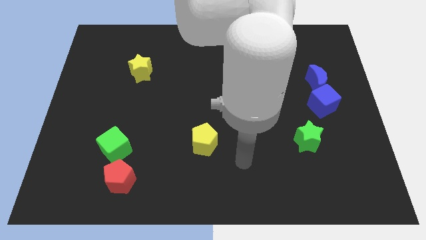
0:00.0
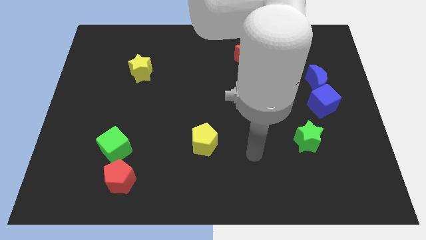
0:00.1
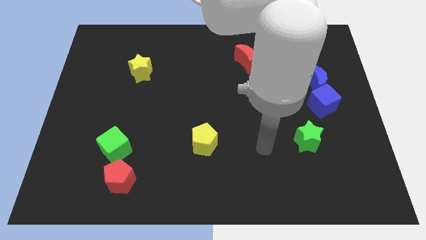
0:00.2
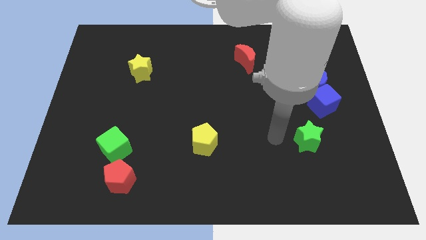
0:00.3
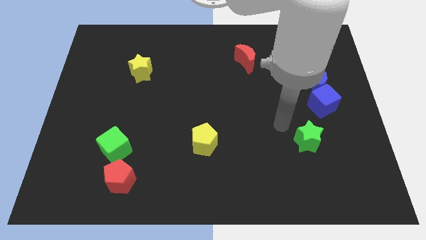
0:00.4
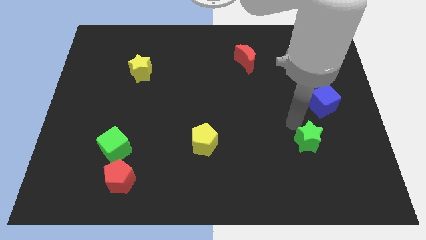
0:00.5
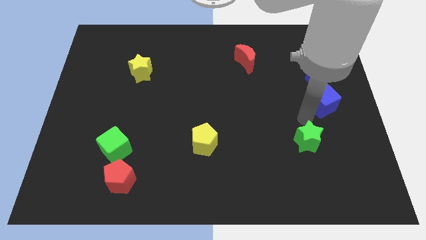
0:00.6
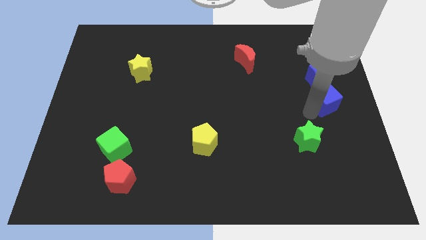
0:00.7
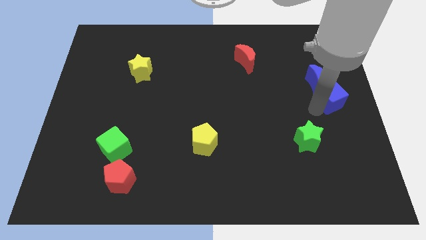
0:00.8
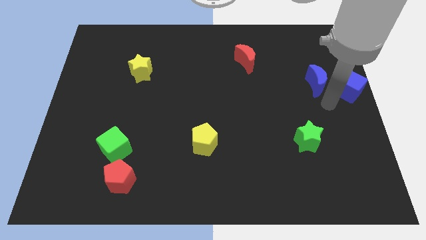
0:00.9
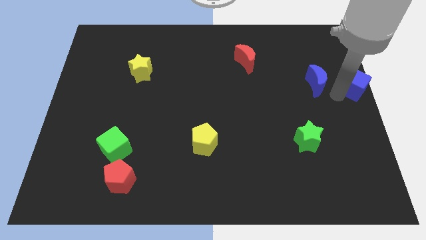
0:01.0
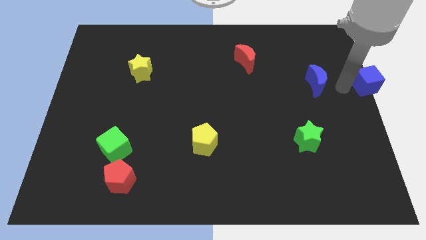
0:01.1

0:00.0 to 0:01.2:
move the blue moon away from the blue cube

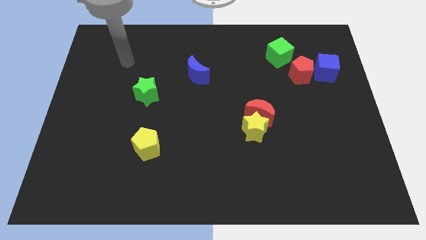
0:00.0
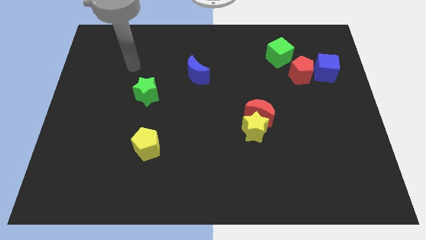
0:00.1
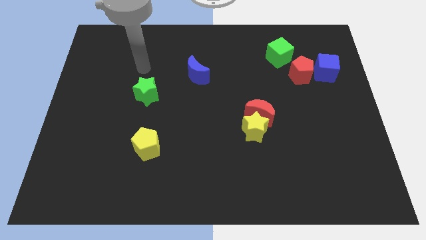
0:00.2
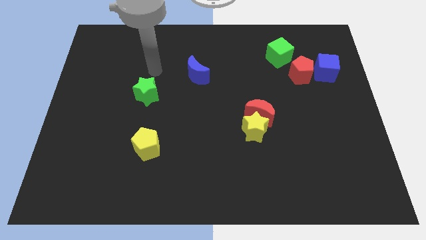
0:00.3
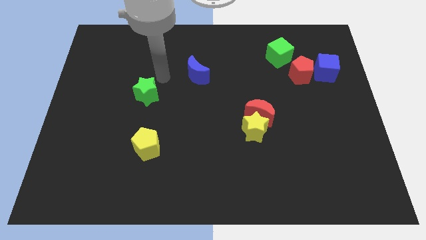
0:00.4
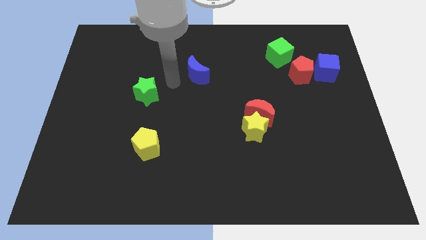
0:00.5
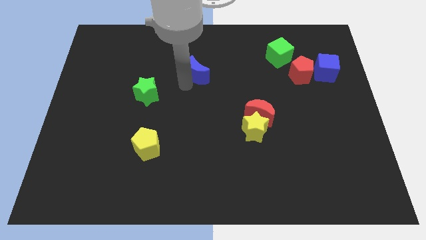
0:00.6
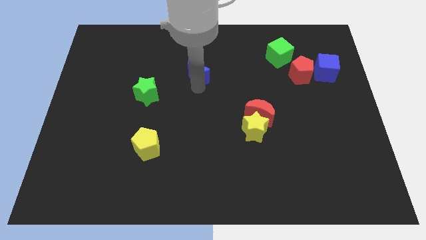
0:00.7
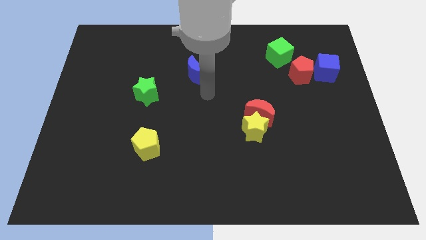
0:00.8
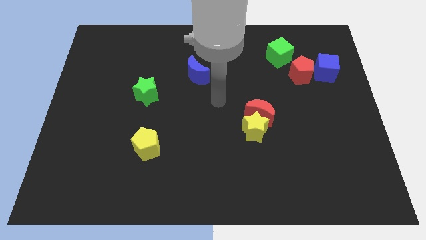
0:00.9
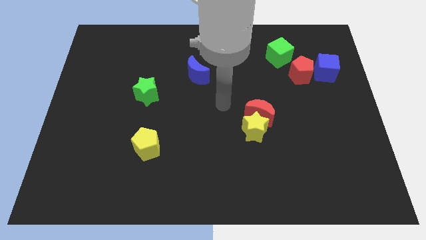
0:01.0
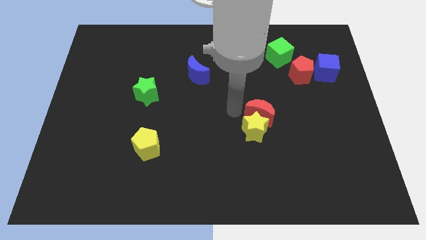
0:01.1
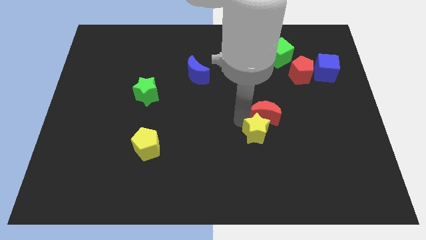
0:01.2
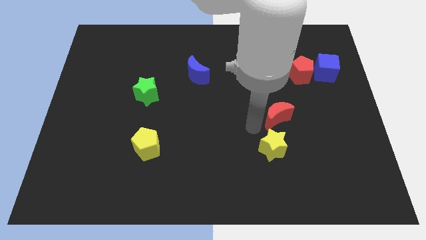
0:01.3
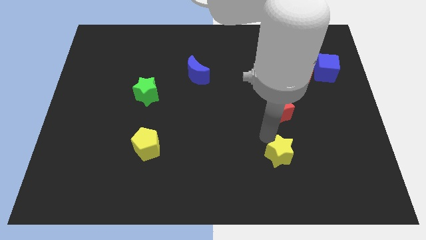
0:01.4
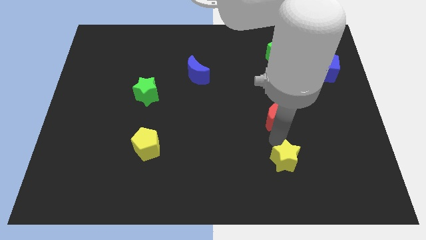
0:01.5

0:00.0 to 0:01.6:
move the red moon away from the yellow star

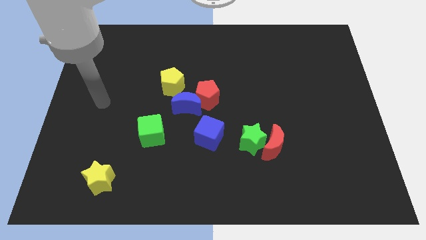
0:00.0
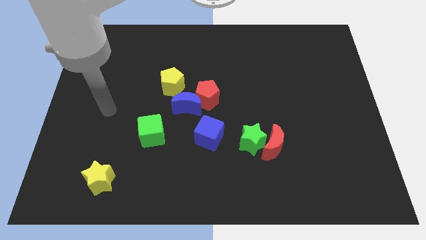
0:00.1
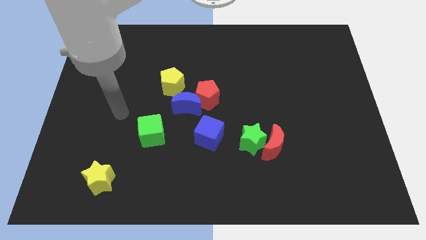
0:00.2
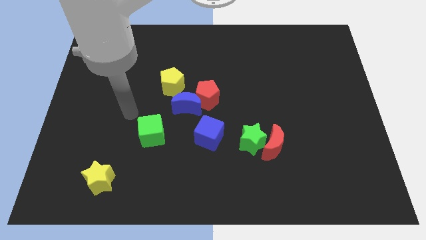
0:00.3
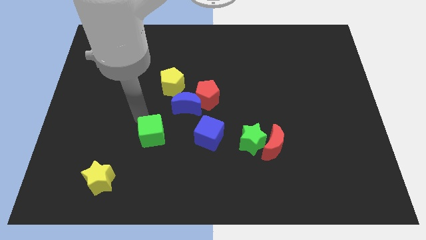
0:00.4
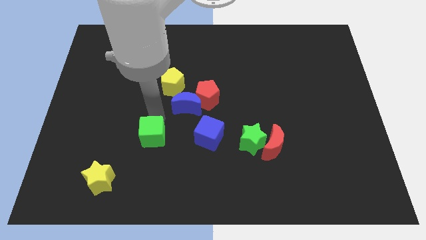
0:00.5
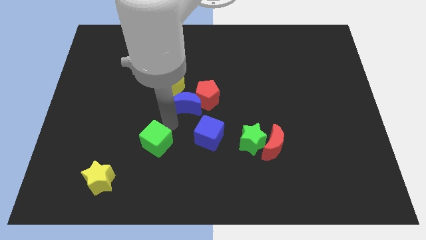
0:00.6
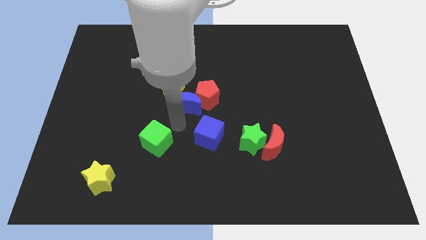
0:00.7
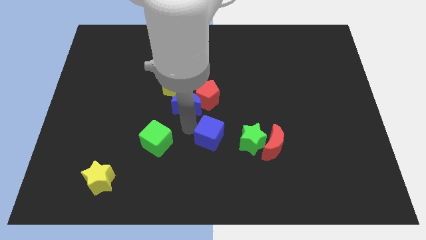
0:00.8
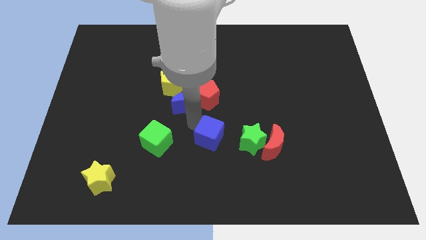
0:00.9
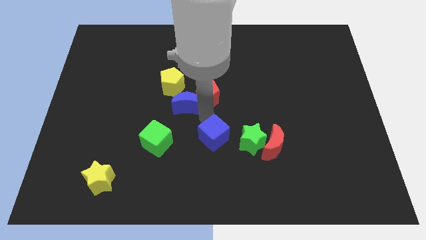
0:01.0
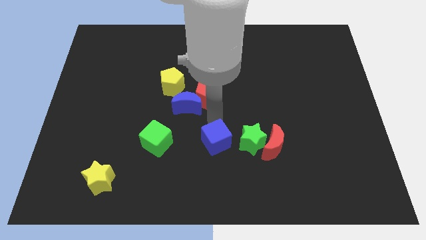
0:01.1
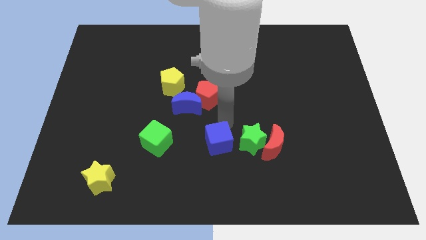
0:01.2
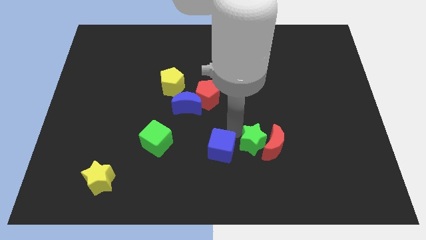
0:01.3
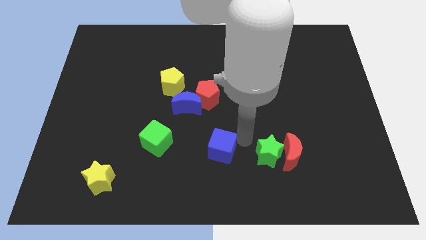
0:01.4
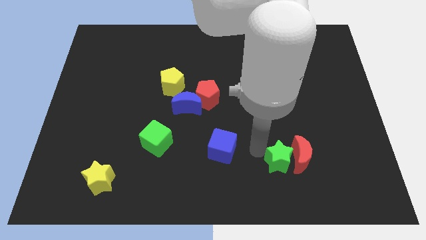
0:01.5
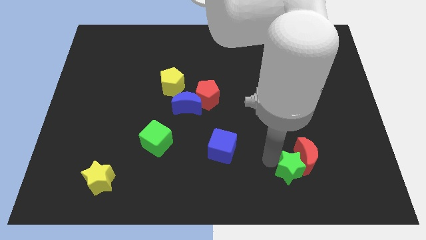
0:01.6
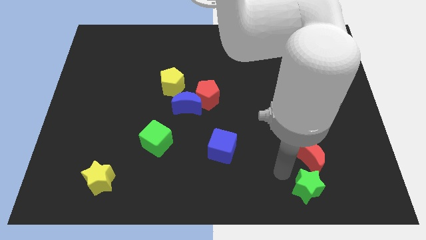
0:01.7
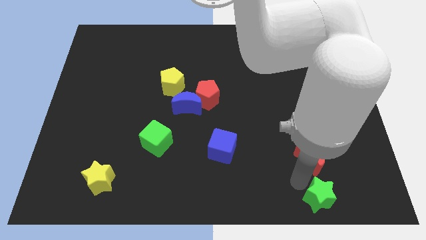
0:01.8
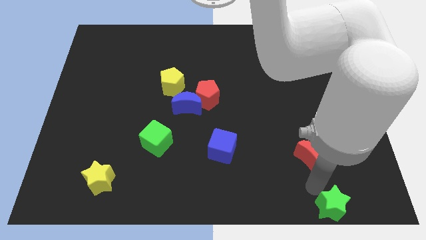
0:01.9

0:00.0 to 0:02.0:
move the red moon away from the green star

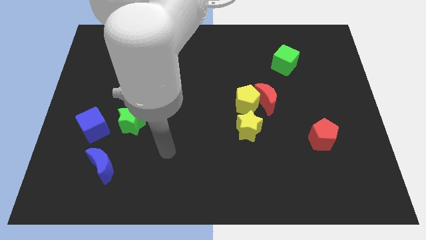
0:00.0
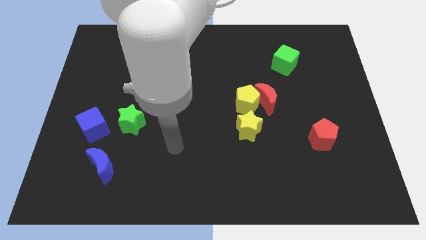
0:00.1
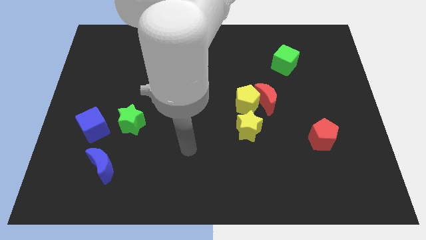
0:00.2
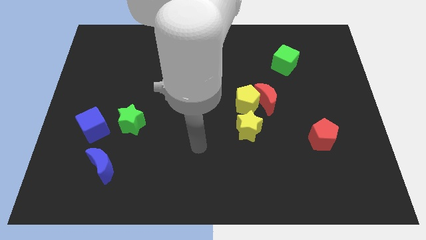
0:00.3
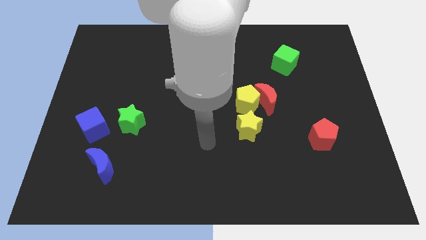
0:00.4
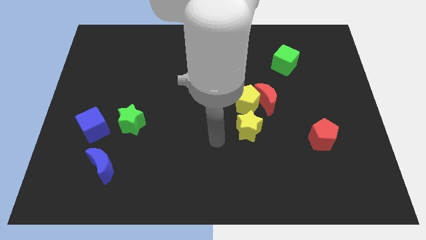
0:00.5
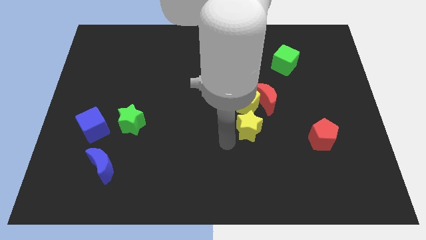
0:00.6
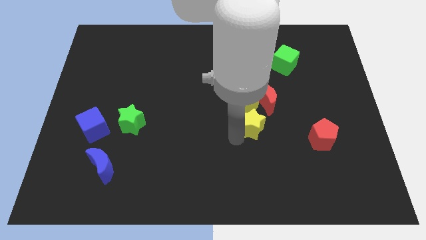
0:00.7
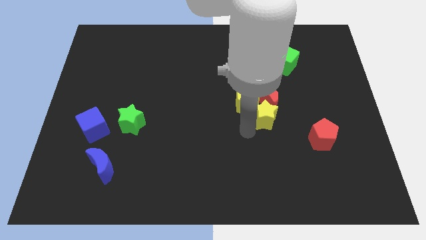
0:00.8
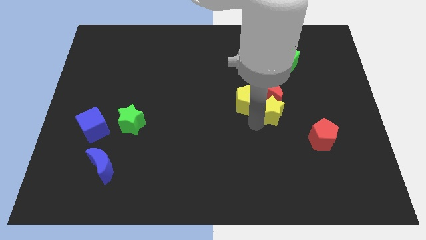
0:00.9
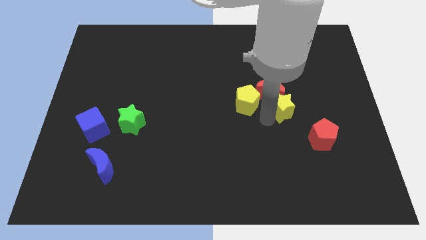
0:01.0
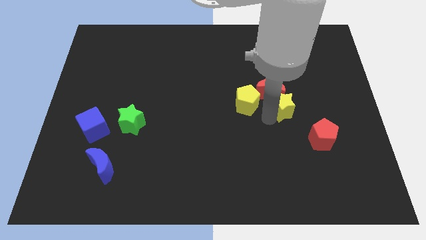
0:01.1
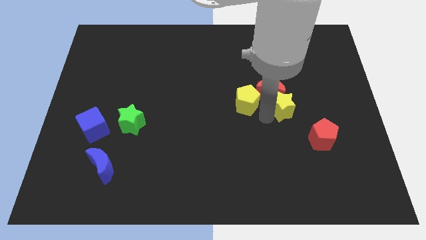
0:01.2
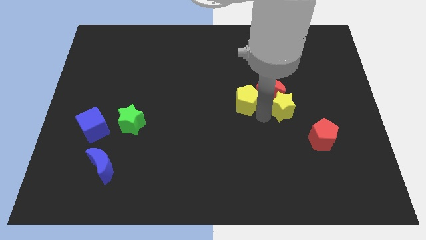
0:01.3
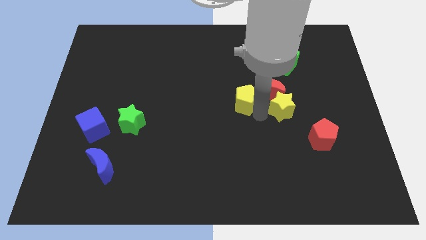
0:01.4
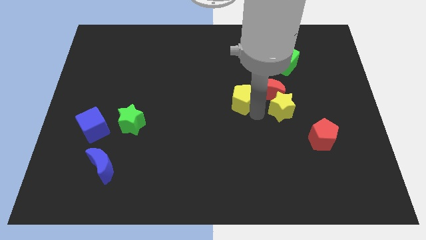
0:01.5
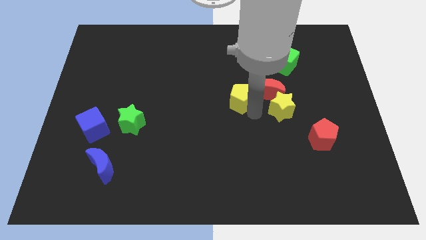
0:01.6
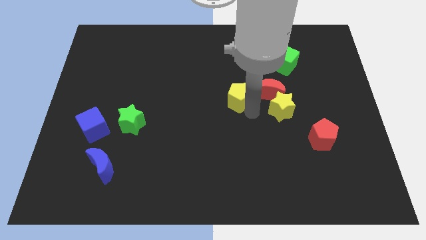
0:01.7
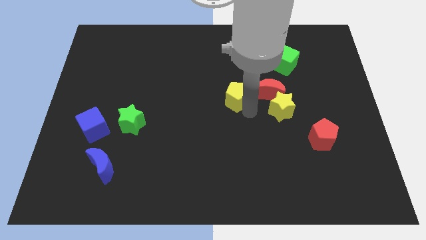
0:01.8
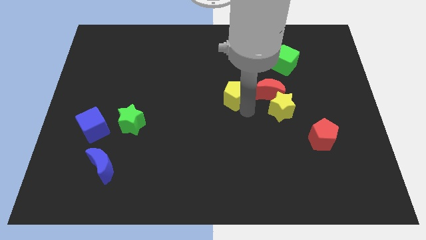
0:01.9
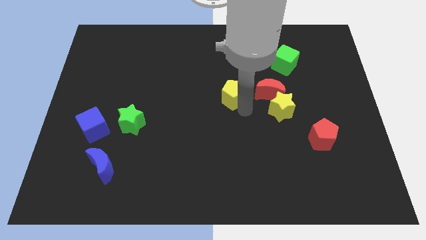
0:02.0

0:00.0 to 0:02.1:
pull the yellow pentagon apart from the red moon and yellow star

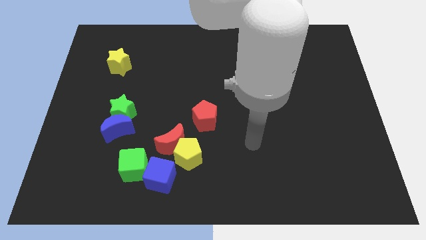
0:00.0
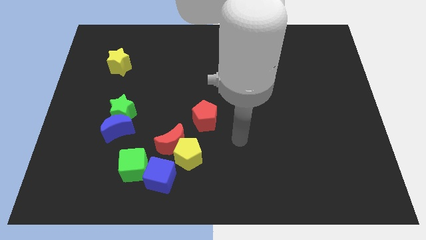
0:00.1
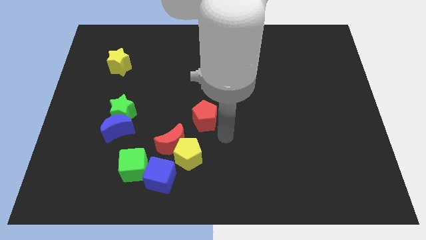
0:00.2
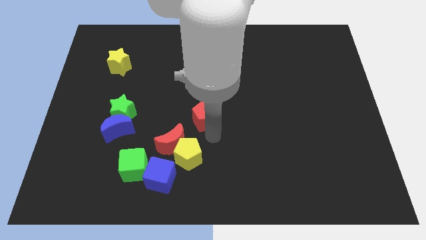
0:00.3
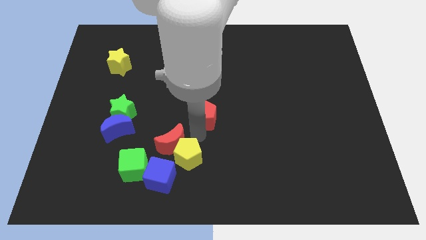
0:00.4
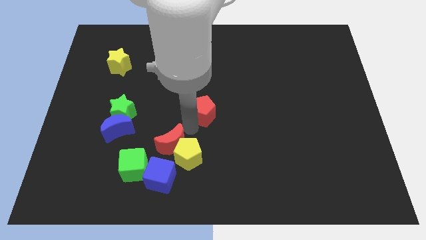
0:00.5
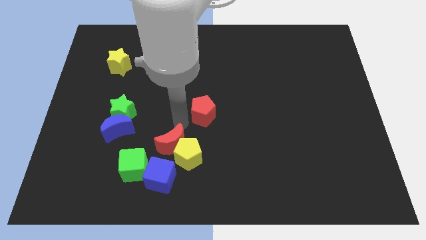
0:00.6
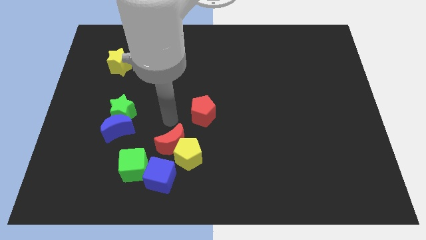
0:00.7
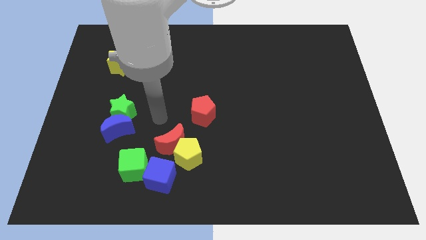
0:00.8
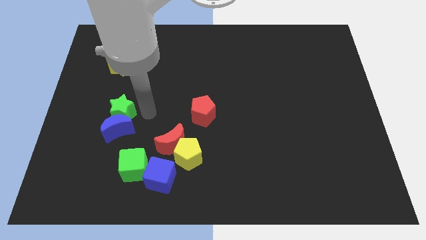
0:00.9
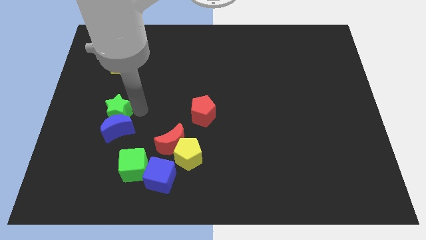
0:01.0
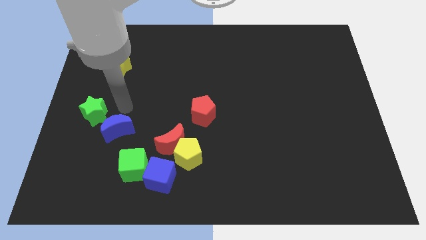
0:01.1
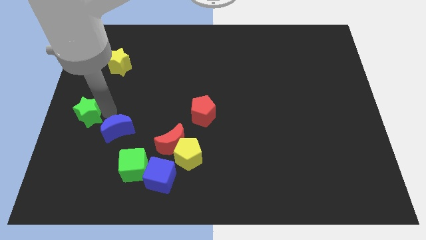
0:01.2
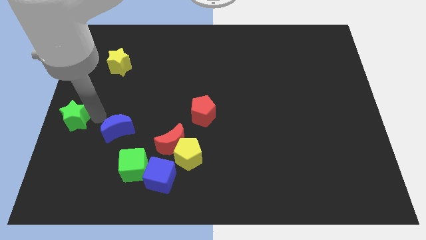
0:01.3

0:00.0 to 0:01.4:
separate the blue moon from the green star

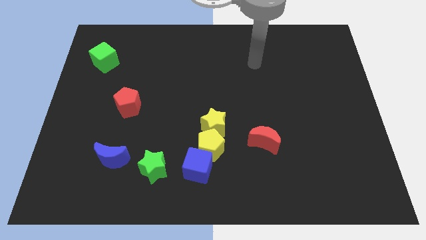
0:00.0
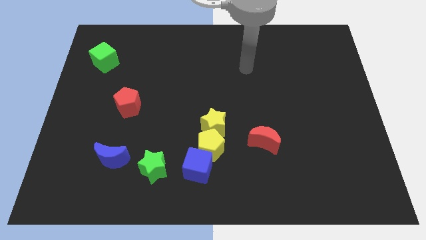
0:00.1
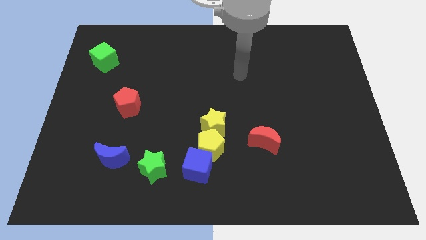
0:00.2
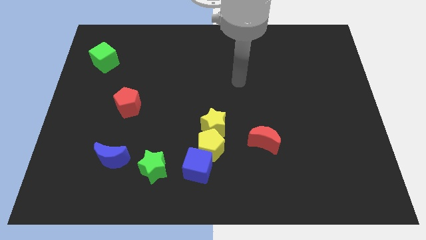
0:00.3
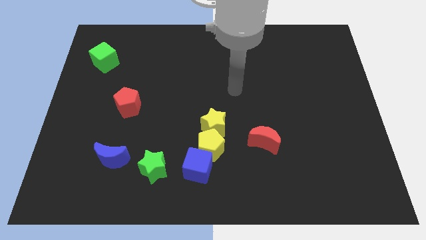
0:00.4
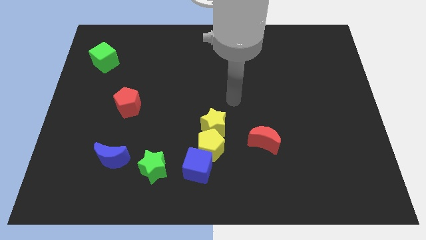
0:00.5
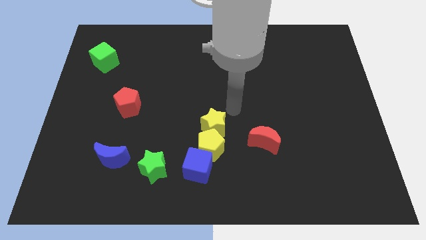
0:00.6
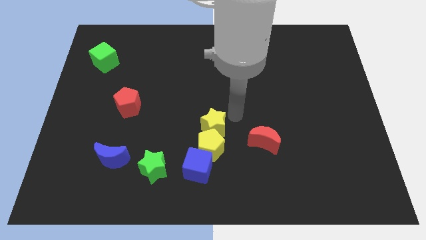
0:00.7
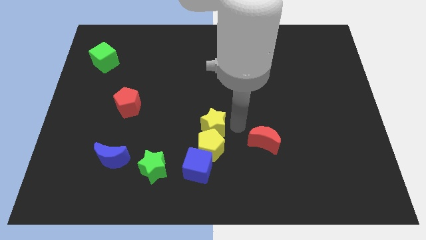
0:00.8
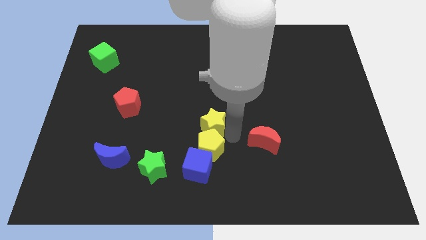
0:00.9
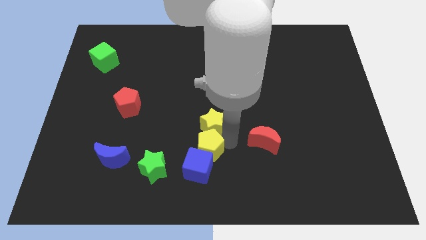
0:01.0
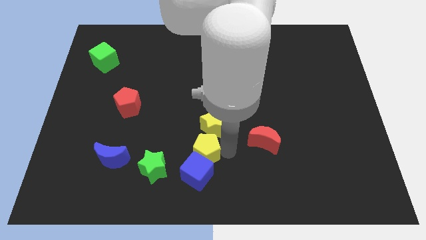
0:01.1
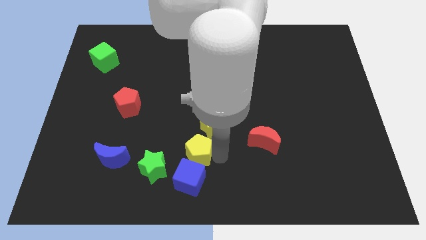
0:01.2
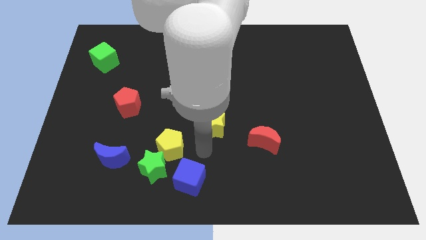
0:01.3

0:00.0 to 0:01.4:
move the yellow star away from the yellow pentagon
